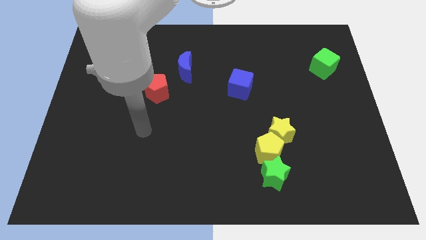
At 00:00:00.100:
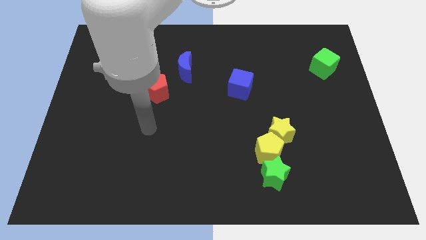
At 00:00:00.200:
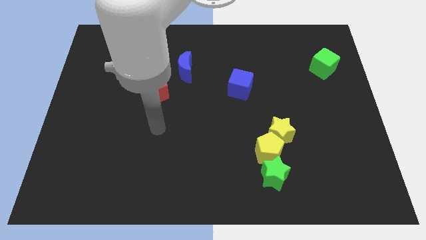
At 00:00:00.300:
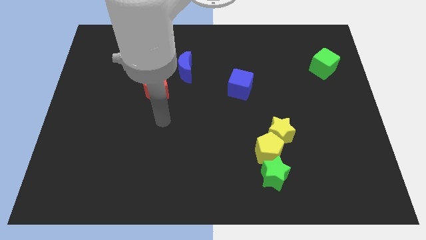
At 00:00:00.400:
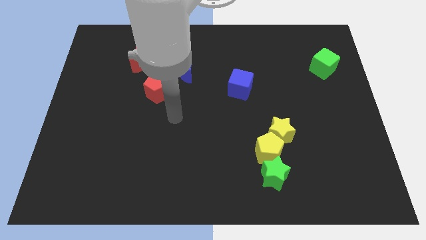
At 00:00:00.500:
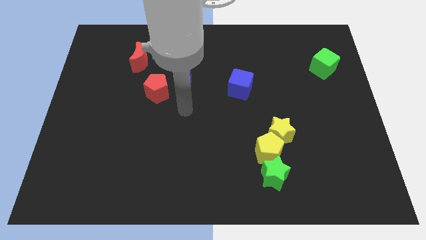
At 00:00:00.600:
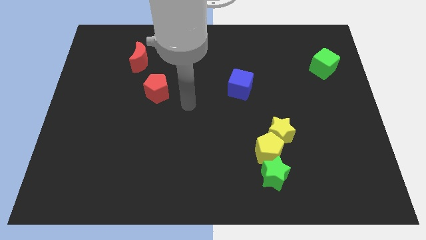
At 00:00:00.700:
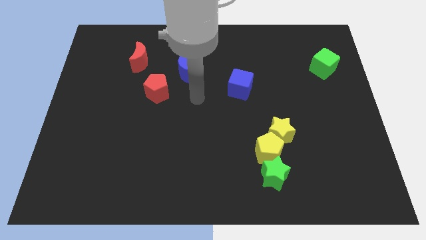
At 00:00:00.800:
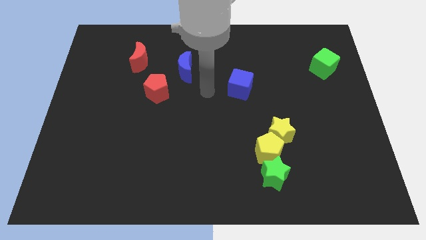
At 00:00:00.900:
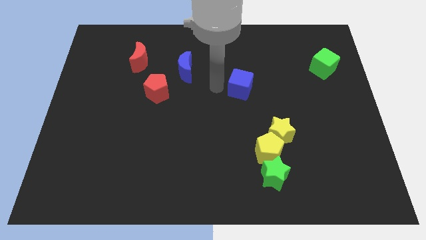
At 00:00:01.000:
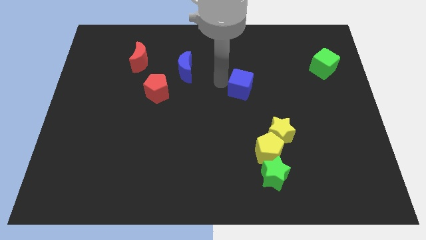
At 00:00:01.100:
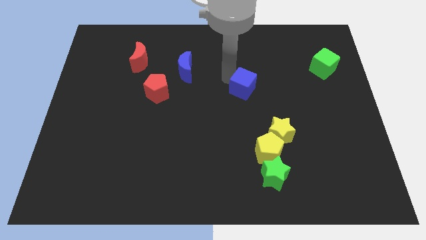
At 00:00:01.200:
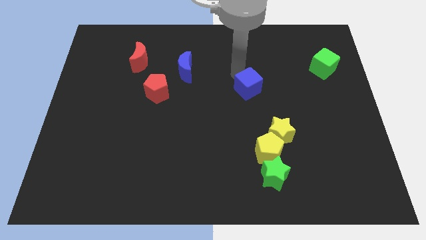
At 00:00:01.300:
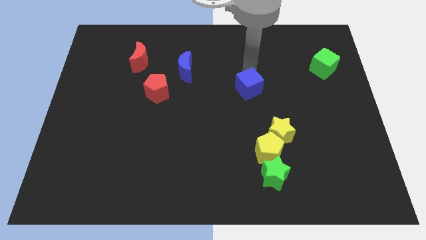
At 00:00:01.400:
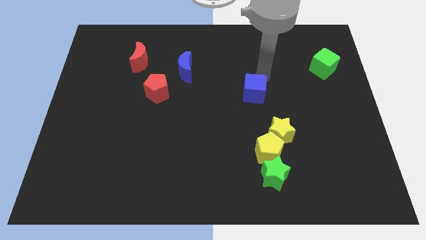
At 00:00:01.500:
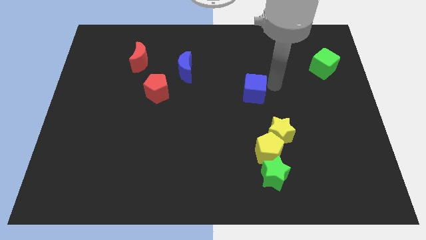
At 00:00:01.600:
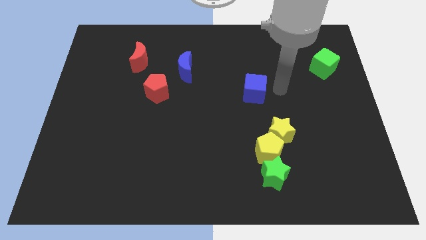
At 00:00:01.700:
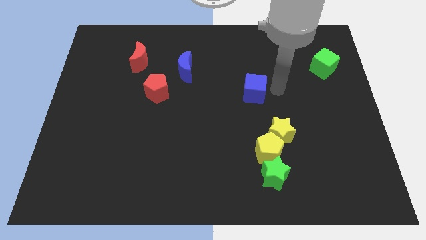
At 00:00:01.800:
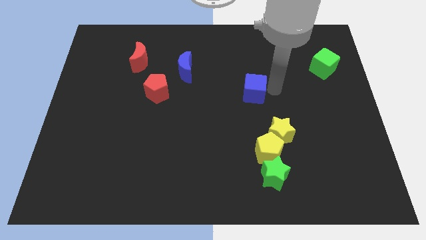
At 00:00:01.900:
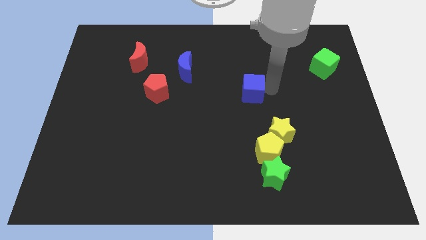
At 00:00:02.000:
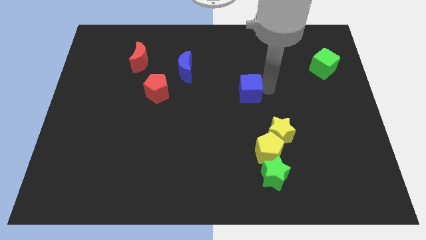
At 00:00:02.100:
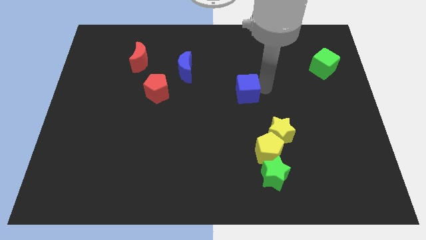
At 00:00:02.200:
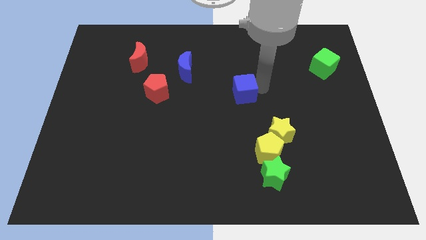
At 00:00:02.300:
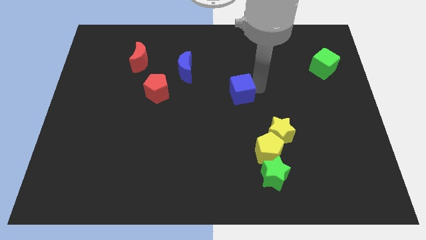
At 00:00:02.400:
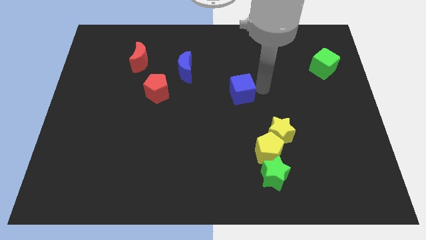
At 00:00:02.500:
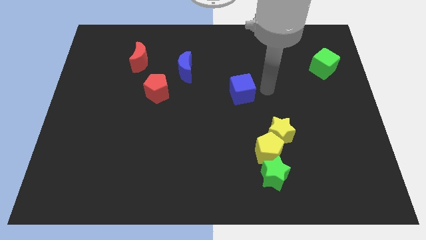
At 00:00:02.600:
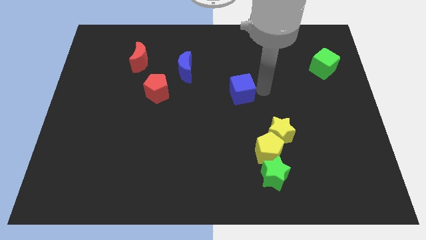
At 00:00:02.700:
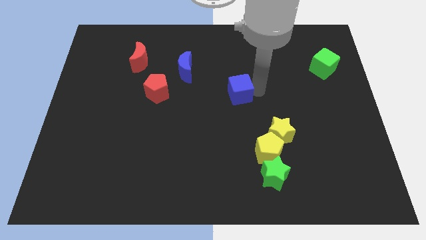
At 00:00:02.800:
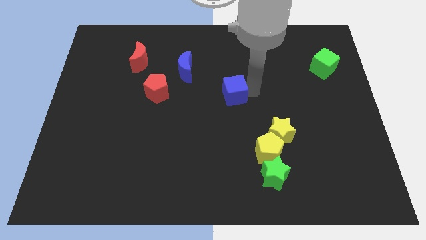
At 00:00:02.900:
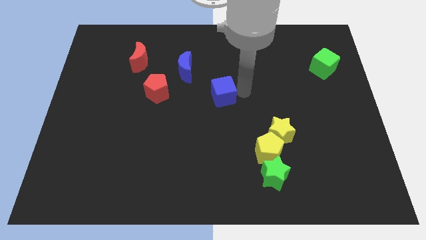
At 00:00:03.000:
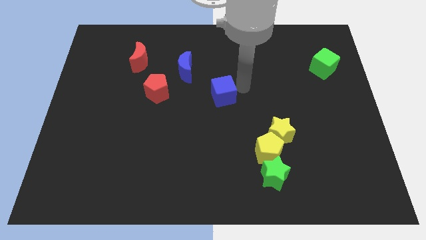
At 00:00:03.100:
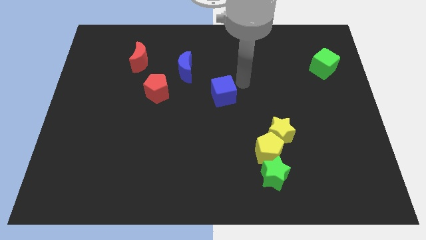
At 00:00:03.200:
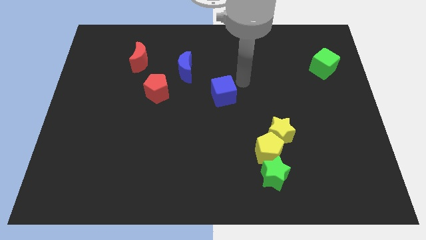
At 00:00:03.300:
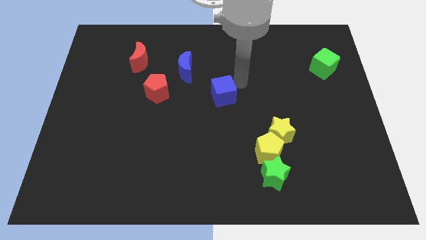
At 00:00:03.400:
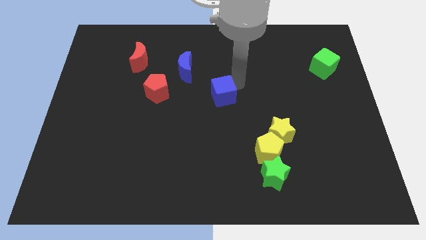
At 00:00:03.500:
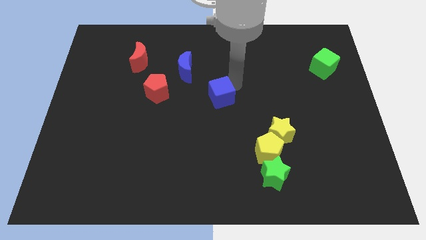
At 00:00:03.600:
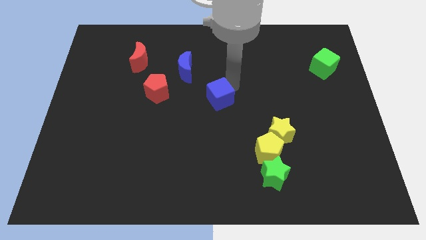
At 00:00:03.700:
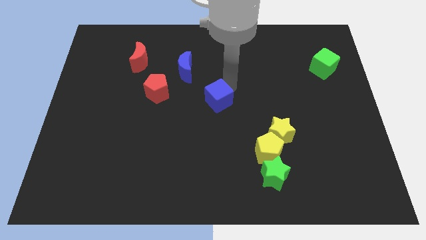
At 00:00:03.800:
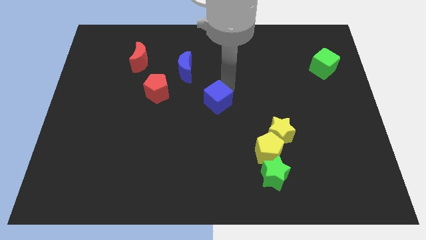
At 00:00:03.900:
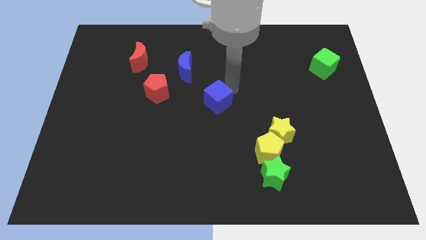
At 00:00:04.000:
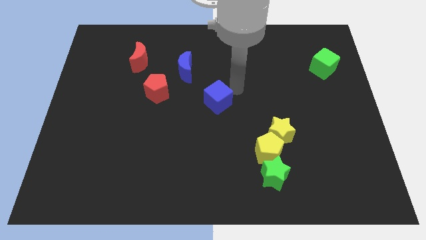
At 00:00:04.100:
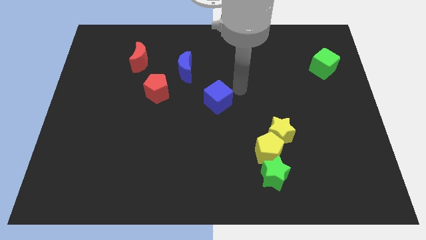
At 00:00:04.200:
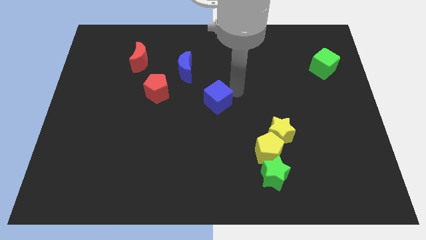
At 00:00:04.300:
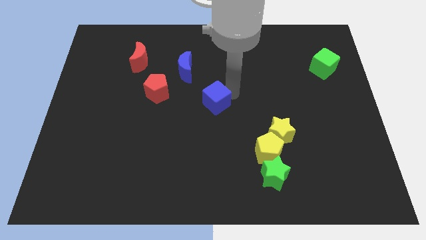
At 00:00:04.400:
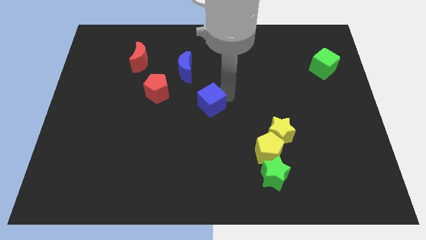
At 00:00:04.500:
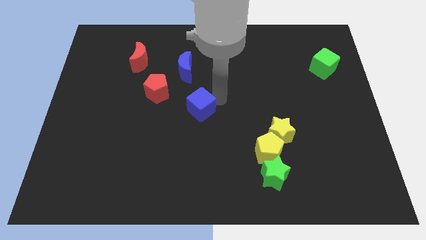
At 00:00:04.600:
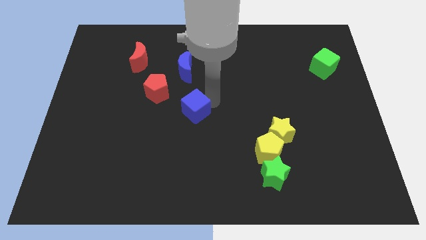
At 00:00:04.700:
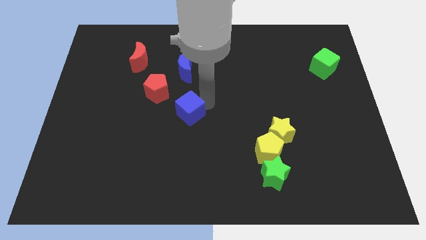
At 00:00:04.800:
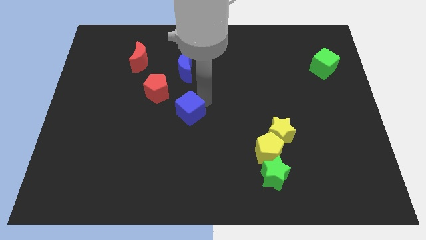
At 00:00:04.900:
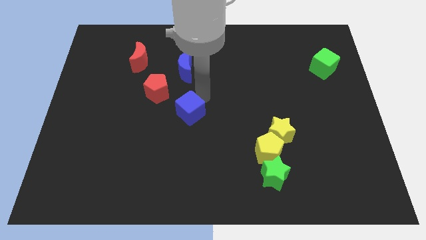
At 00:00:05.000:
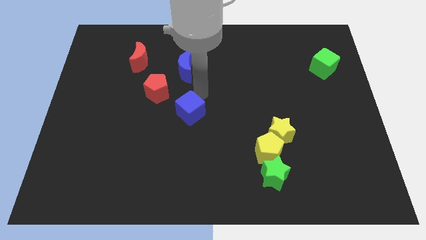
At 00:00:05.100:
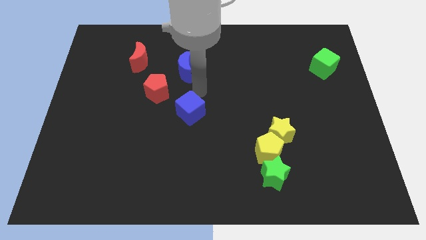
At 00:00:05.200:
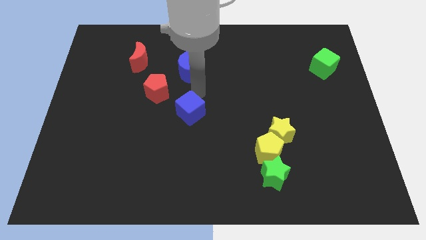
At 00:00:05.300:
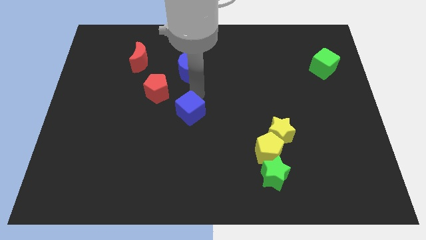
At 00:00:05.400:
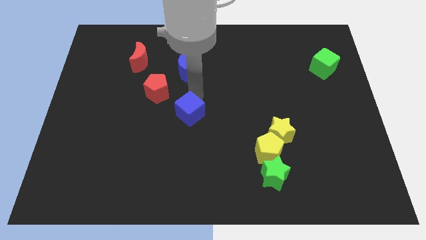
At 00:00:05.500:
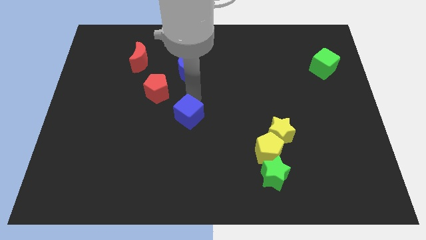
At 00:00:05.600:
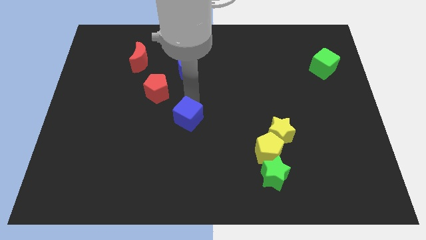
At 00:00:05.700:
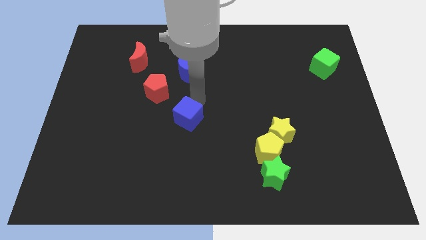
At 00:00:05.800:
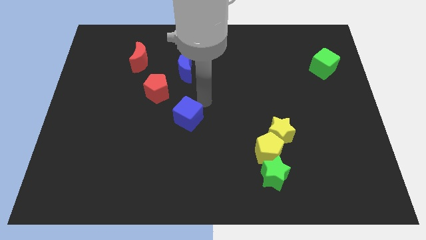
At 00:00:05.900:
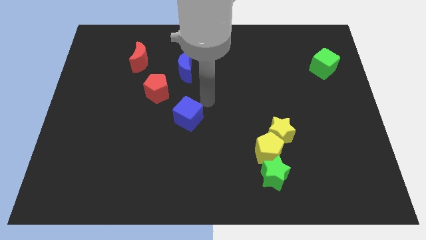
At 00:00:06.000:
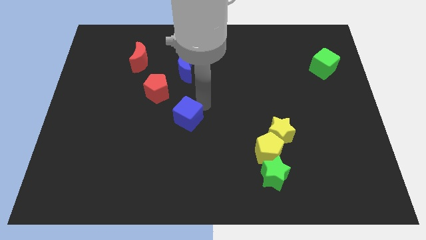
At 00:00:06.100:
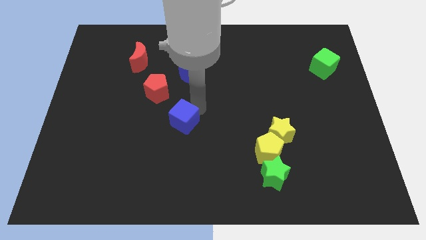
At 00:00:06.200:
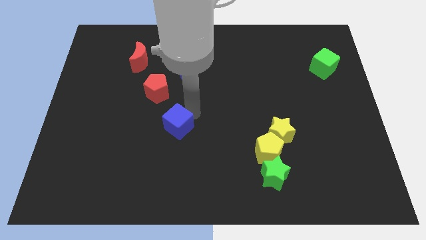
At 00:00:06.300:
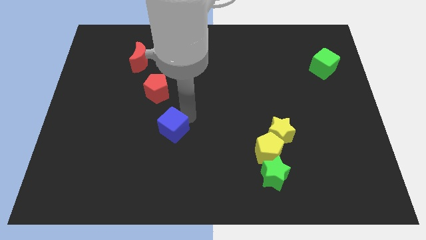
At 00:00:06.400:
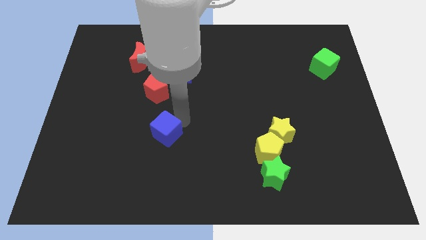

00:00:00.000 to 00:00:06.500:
slide the blue cube downwards and then to the left

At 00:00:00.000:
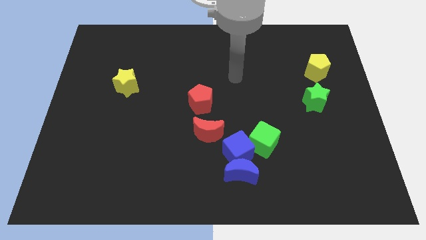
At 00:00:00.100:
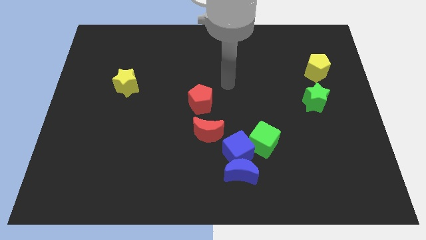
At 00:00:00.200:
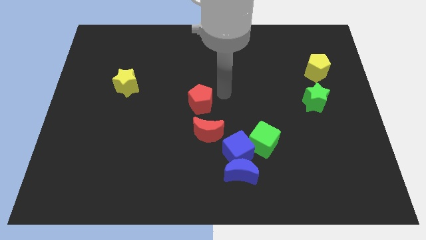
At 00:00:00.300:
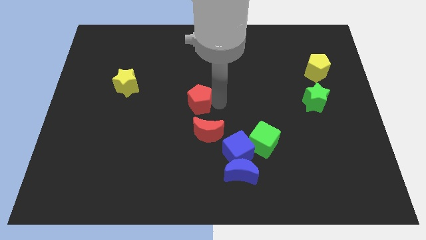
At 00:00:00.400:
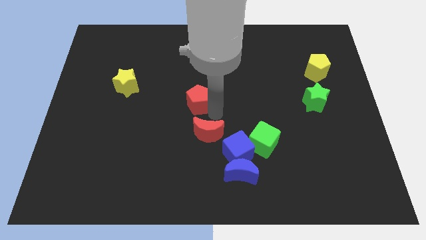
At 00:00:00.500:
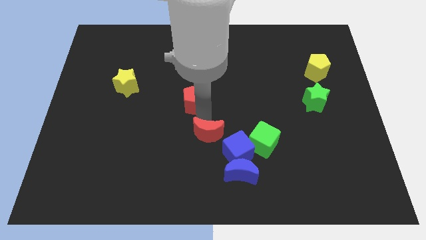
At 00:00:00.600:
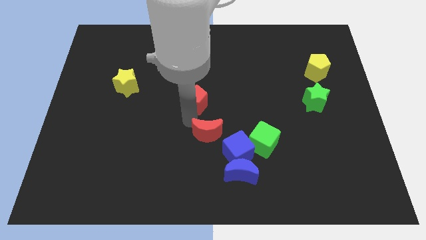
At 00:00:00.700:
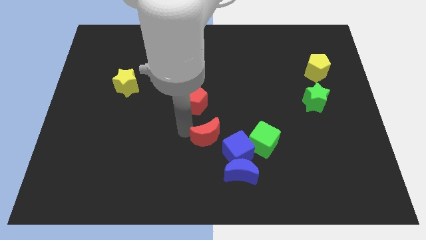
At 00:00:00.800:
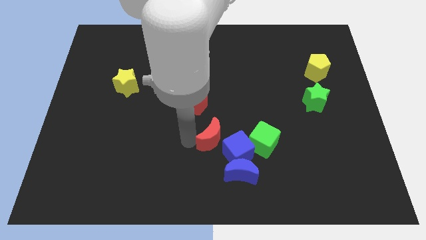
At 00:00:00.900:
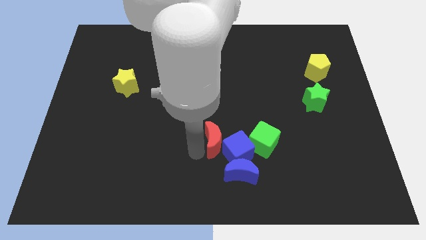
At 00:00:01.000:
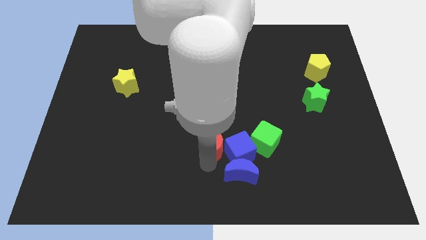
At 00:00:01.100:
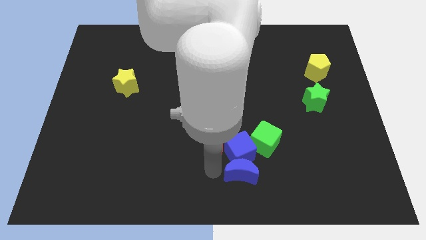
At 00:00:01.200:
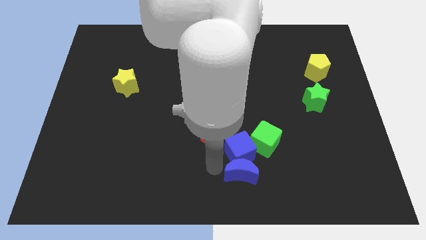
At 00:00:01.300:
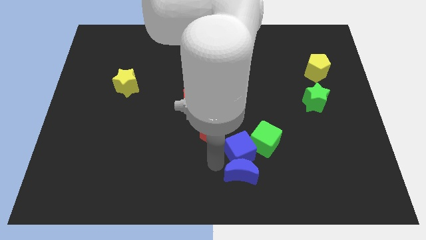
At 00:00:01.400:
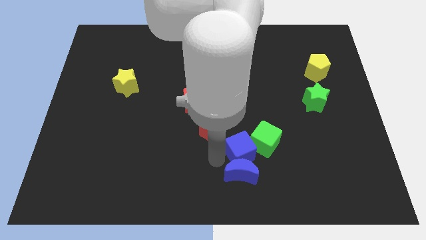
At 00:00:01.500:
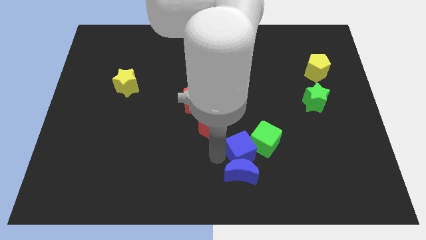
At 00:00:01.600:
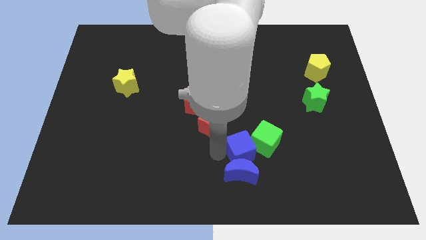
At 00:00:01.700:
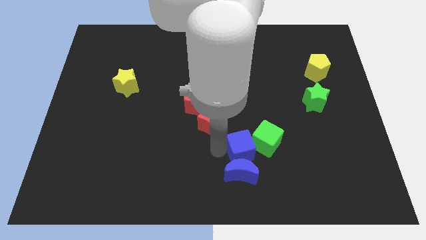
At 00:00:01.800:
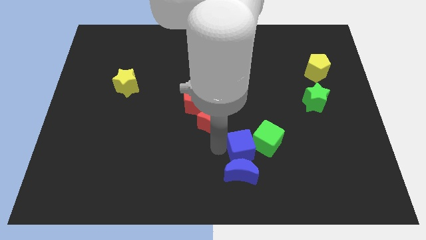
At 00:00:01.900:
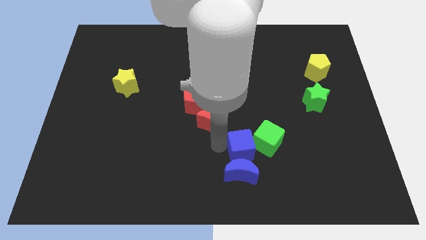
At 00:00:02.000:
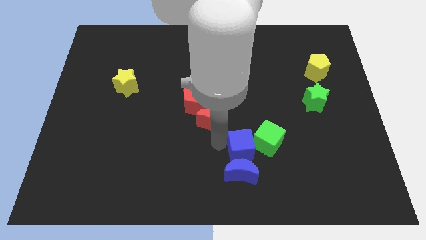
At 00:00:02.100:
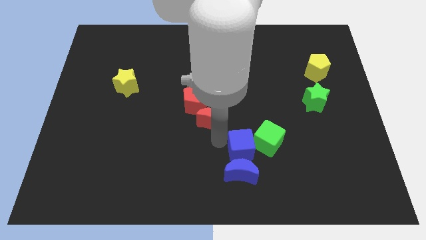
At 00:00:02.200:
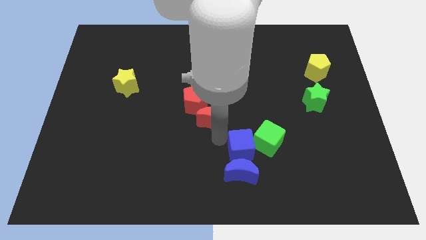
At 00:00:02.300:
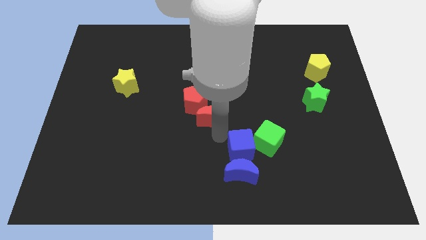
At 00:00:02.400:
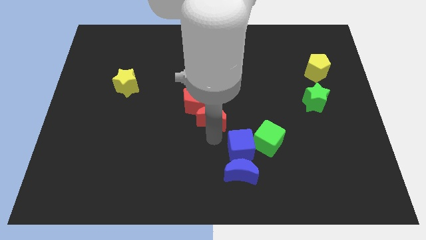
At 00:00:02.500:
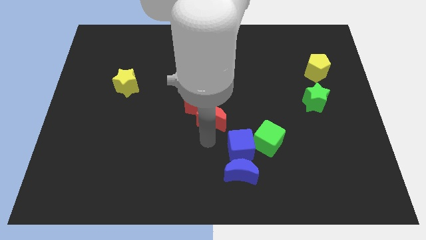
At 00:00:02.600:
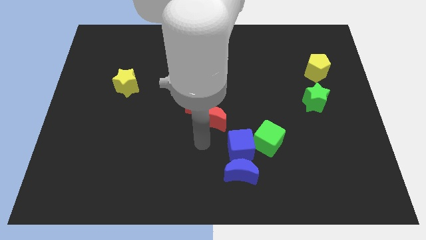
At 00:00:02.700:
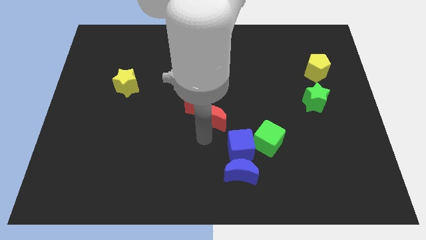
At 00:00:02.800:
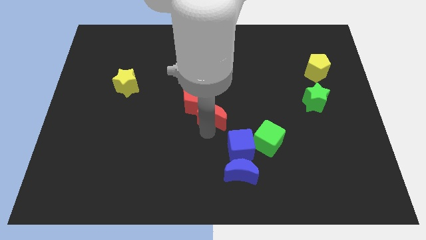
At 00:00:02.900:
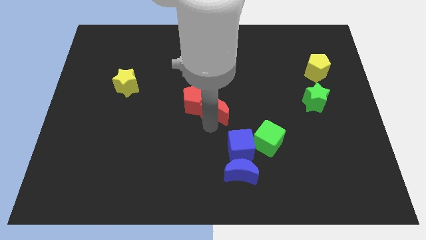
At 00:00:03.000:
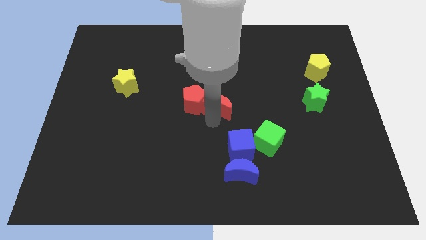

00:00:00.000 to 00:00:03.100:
slightly slide the red moon upwards
